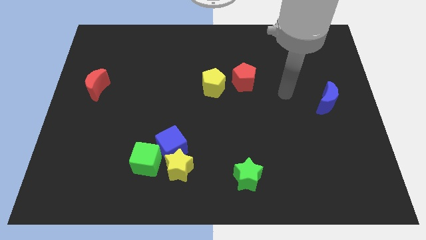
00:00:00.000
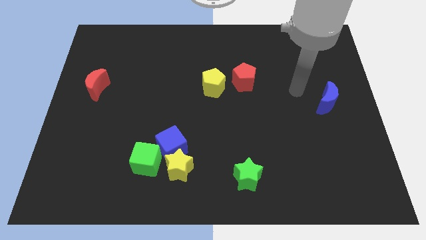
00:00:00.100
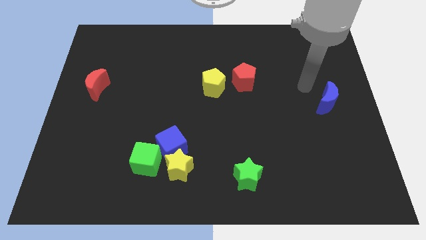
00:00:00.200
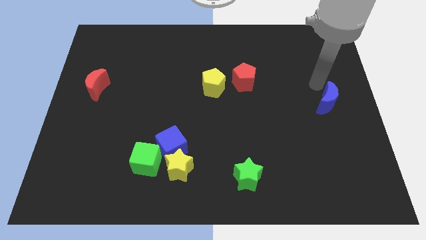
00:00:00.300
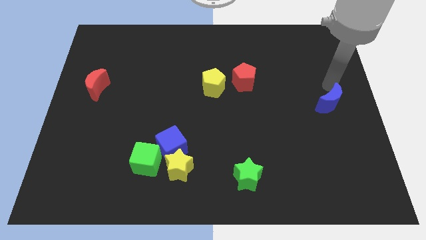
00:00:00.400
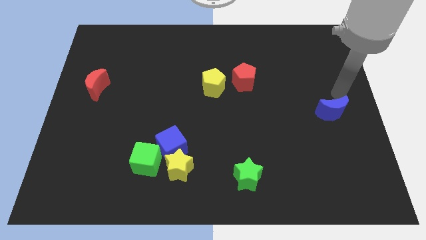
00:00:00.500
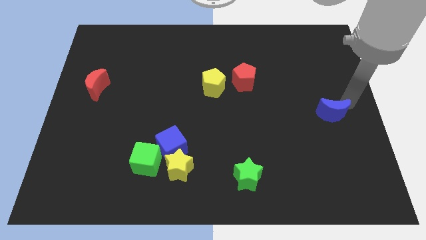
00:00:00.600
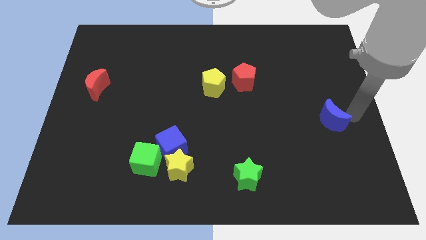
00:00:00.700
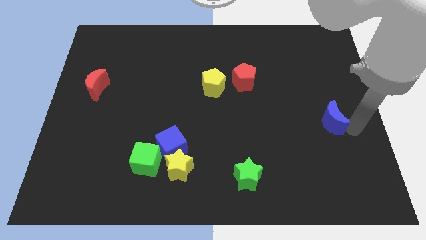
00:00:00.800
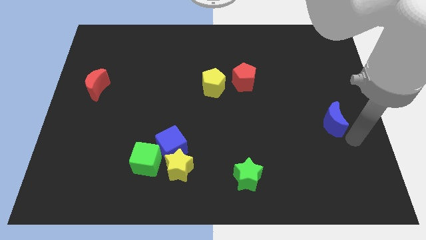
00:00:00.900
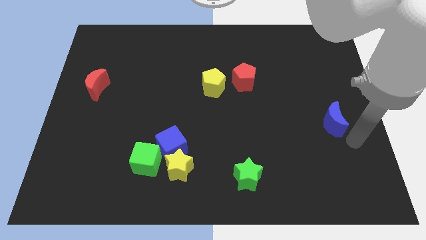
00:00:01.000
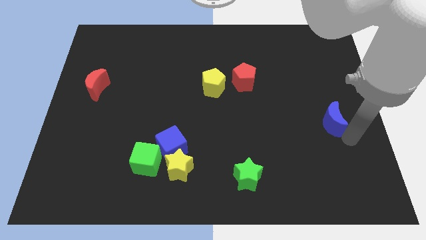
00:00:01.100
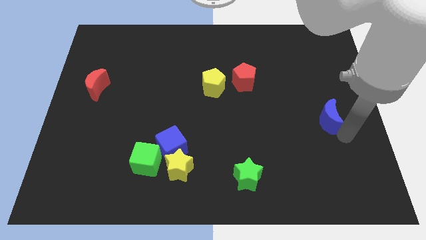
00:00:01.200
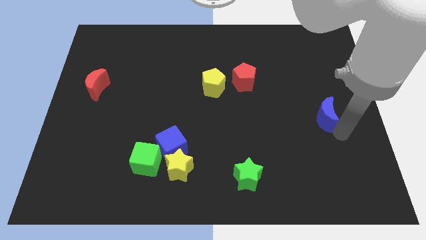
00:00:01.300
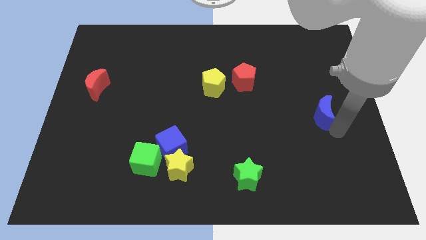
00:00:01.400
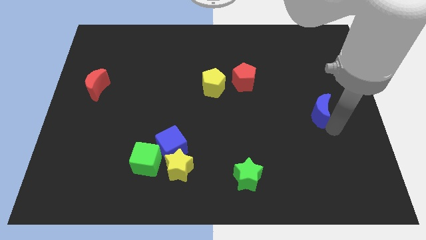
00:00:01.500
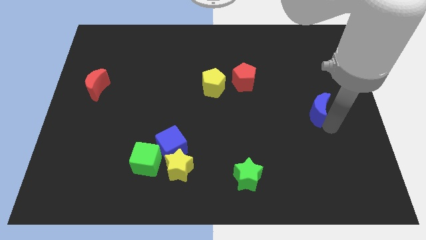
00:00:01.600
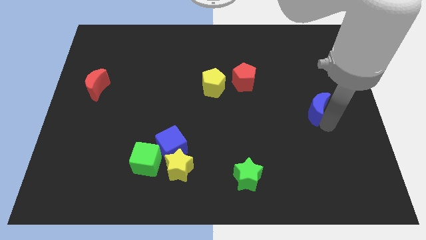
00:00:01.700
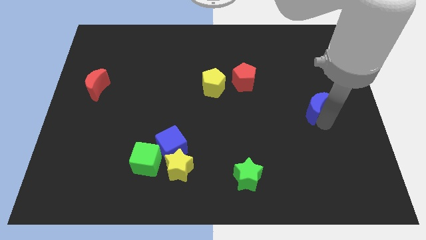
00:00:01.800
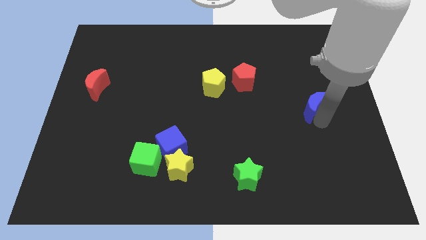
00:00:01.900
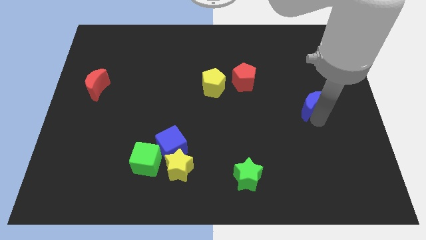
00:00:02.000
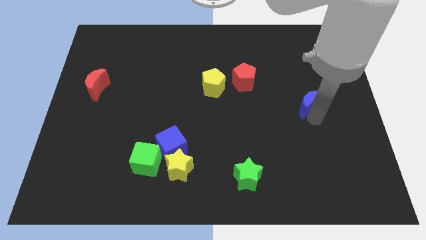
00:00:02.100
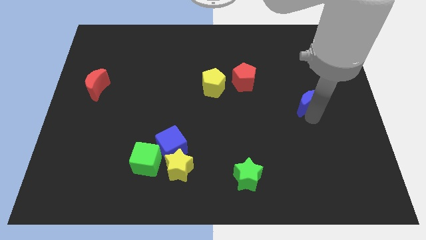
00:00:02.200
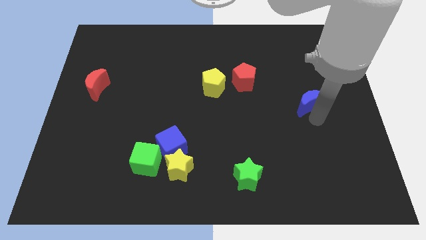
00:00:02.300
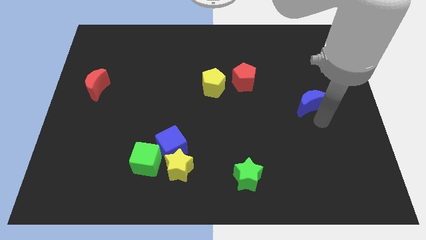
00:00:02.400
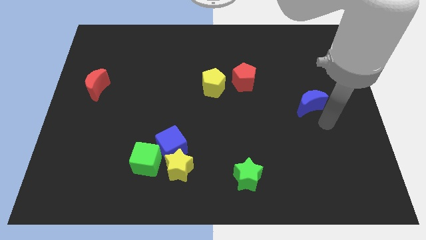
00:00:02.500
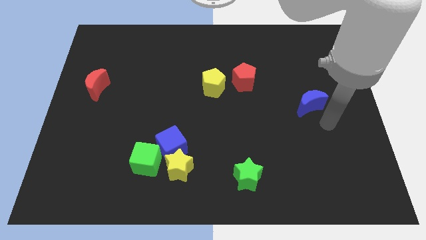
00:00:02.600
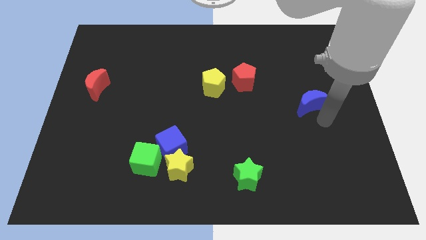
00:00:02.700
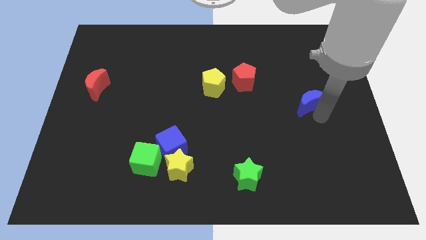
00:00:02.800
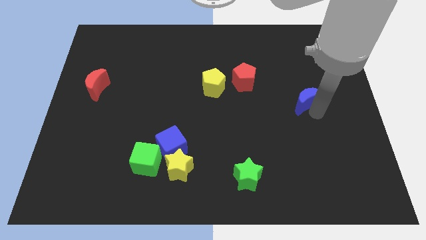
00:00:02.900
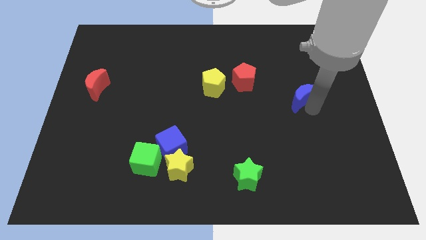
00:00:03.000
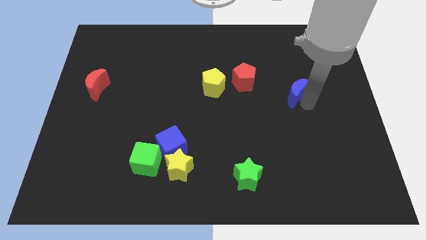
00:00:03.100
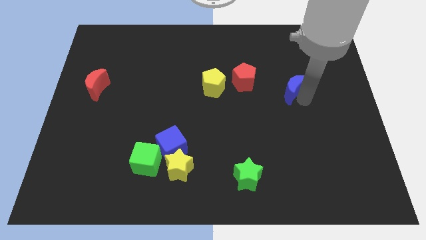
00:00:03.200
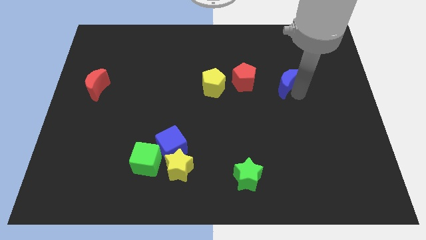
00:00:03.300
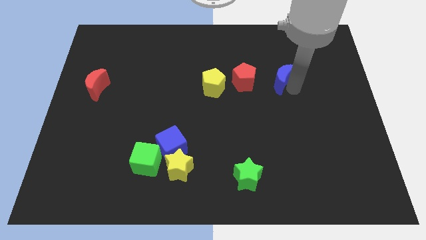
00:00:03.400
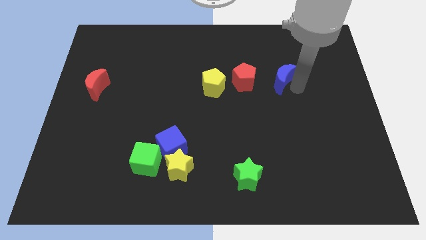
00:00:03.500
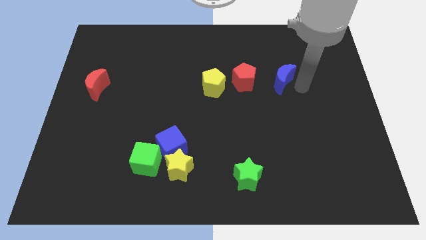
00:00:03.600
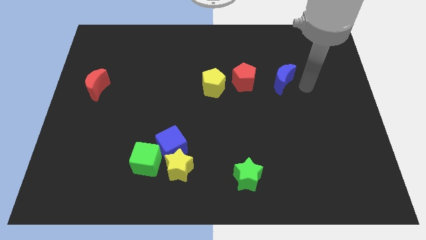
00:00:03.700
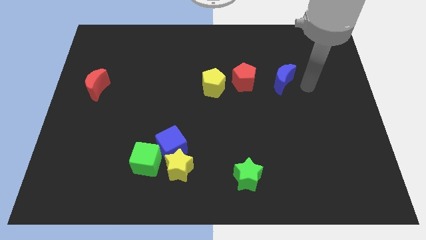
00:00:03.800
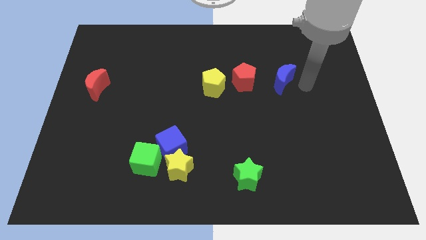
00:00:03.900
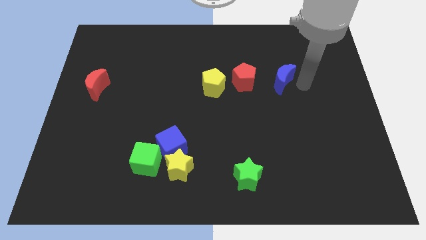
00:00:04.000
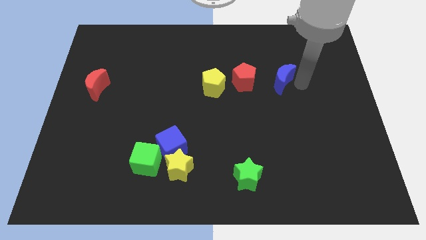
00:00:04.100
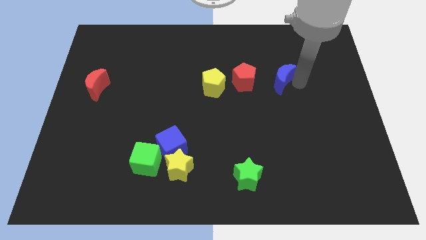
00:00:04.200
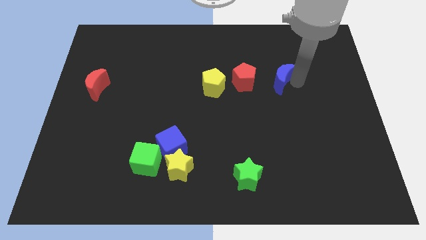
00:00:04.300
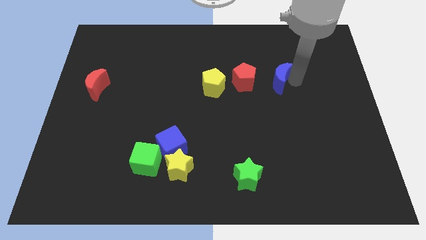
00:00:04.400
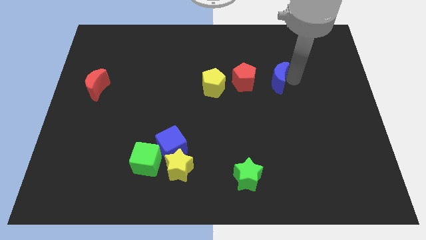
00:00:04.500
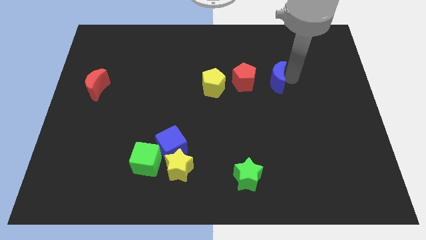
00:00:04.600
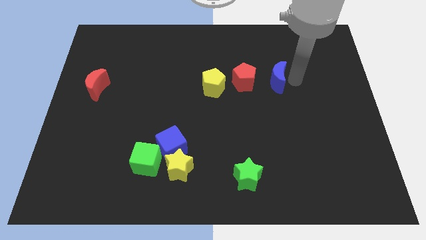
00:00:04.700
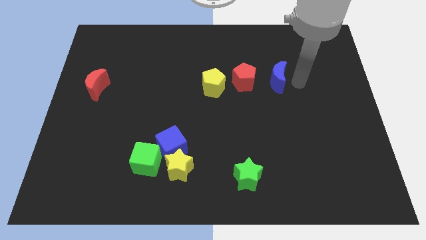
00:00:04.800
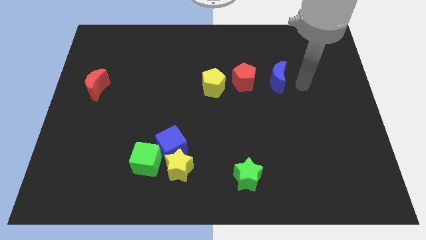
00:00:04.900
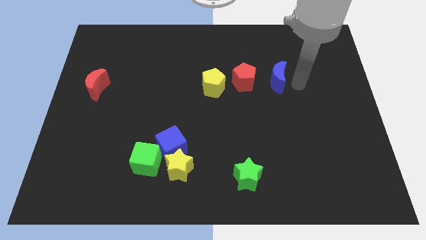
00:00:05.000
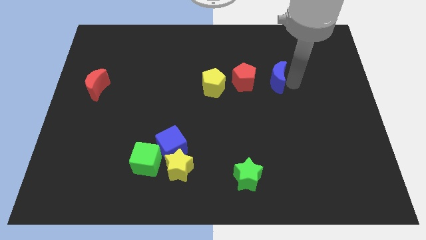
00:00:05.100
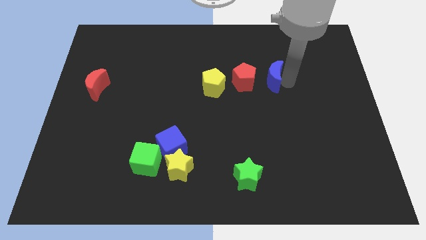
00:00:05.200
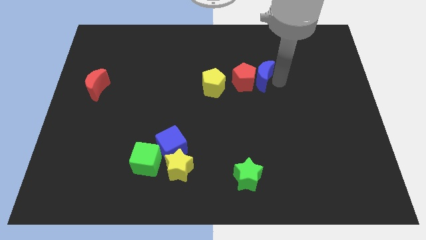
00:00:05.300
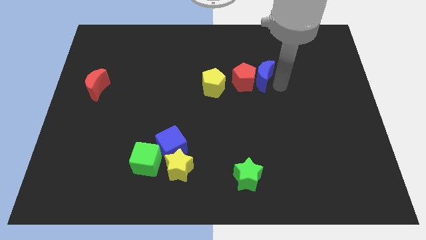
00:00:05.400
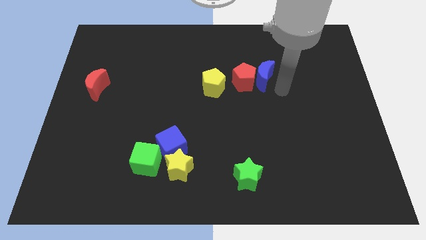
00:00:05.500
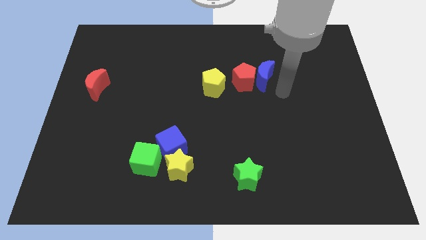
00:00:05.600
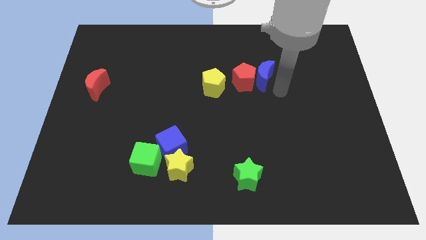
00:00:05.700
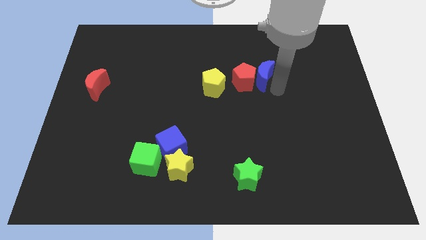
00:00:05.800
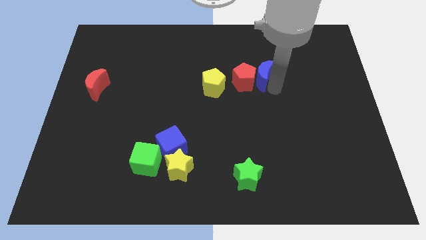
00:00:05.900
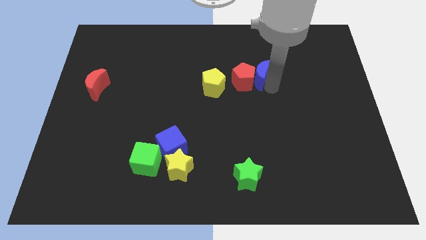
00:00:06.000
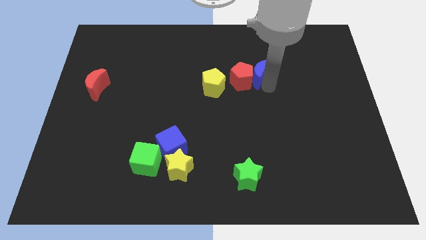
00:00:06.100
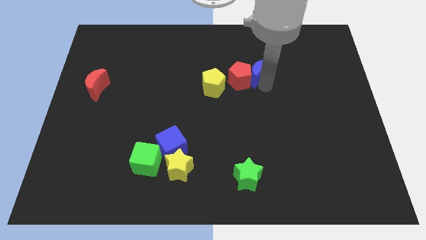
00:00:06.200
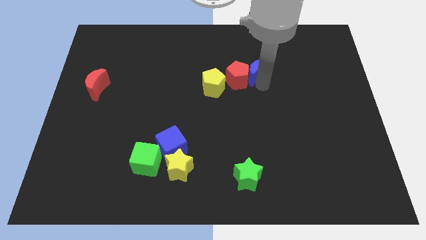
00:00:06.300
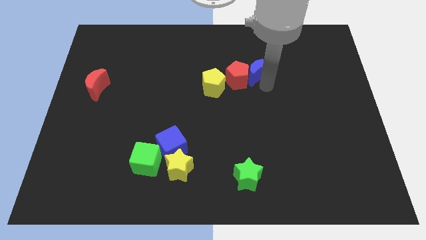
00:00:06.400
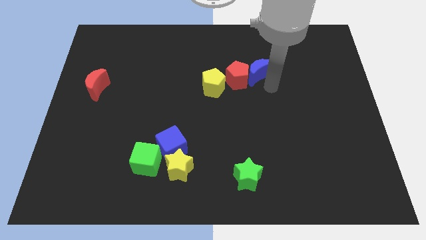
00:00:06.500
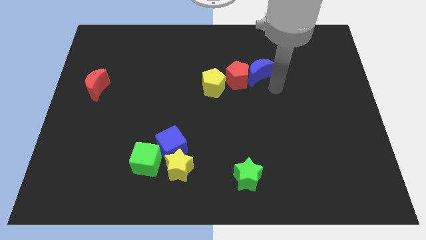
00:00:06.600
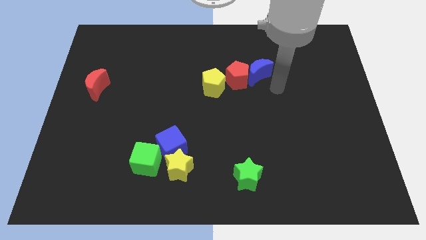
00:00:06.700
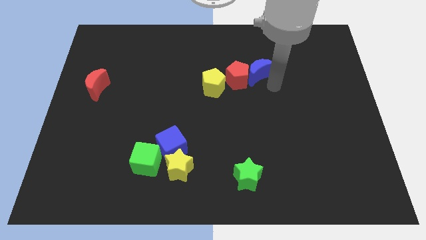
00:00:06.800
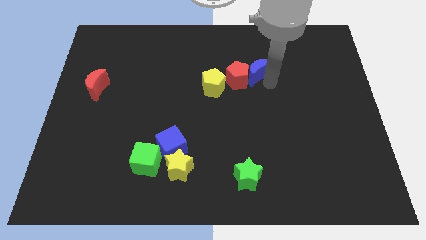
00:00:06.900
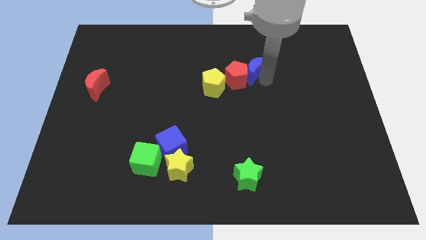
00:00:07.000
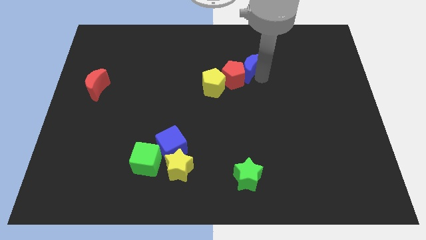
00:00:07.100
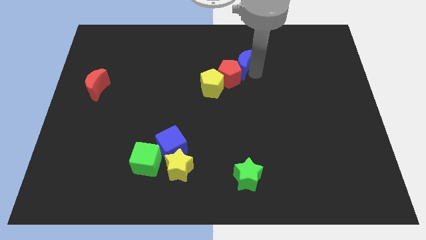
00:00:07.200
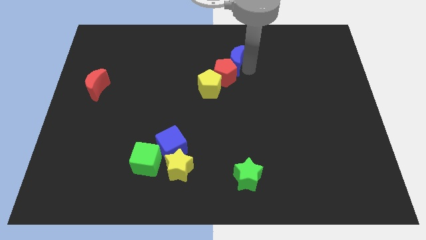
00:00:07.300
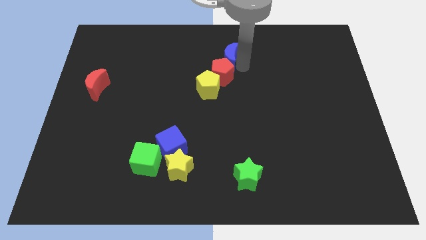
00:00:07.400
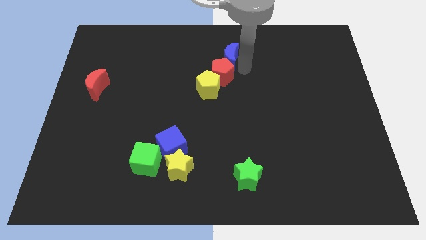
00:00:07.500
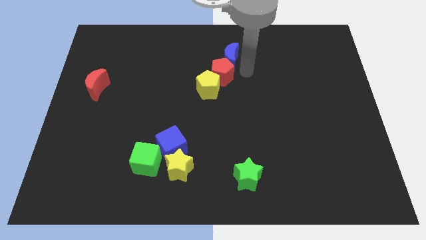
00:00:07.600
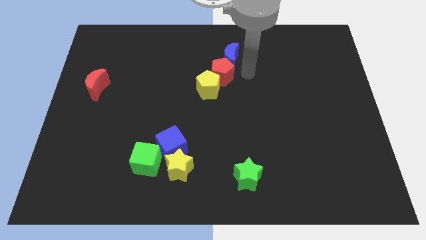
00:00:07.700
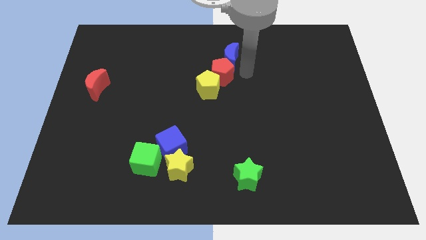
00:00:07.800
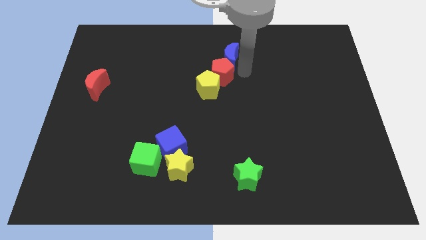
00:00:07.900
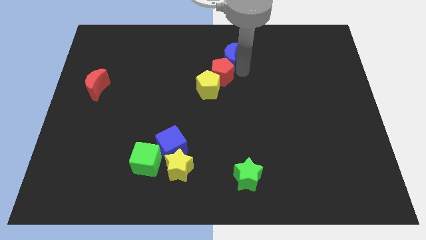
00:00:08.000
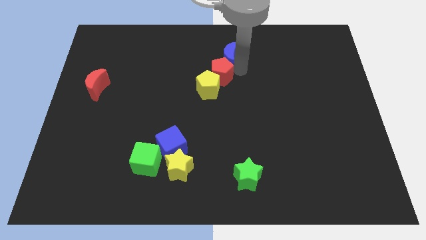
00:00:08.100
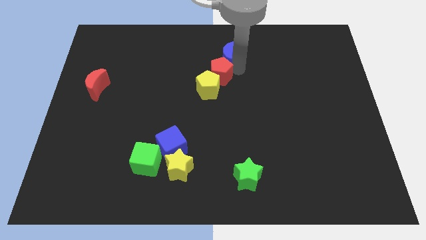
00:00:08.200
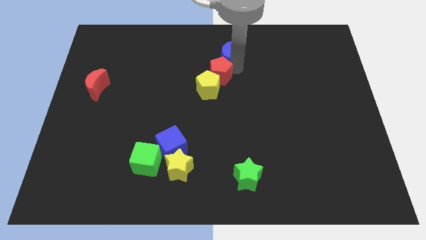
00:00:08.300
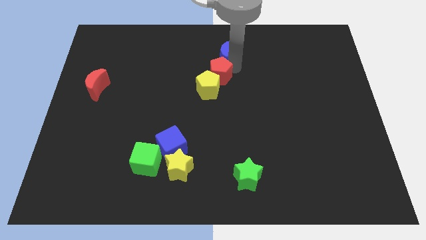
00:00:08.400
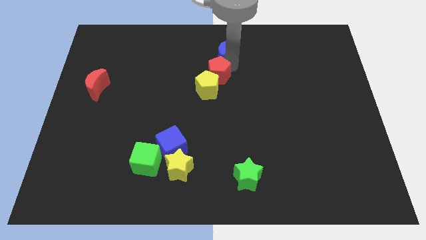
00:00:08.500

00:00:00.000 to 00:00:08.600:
put the blue moon to the top side
